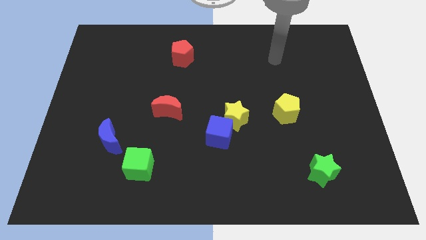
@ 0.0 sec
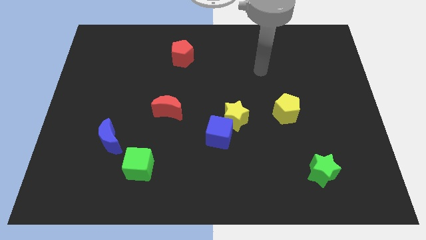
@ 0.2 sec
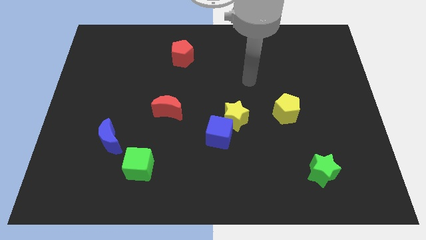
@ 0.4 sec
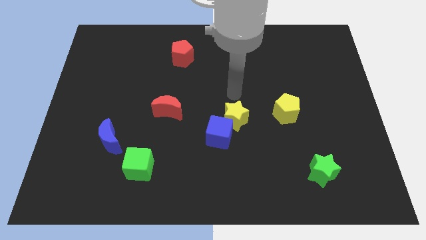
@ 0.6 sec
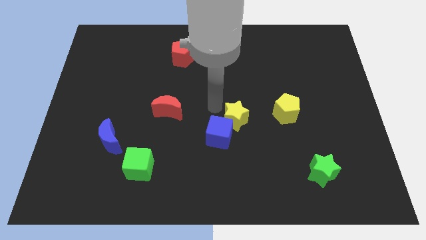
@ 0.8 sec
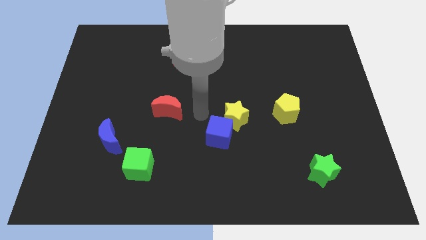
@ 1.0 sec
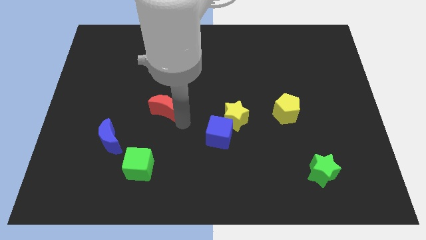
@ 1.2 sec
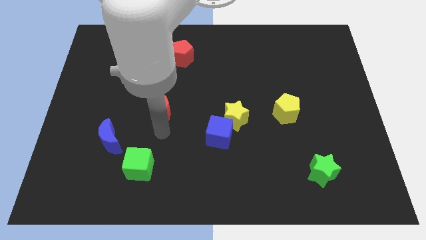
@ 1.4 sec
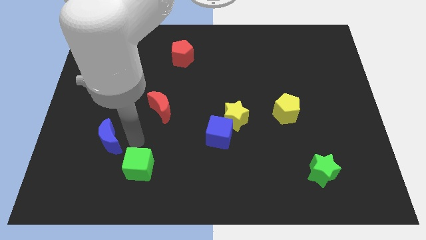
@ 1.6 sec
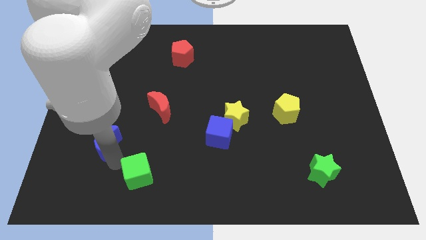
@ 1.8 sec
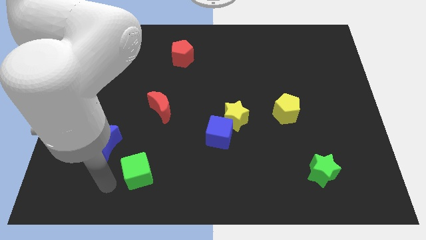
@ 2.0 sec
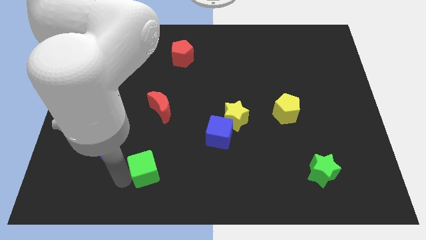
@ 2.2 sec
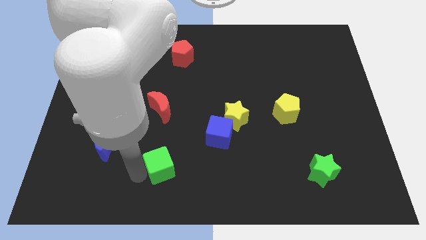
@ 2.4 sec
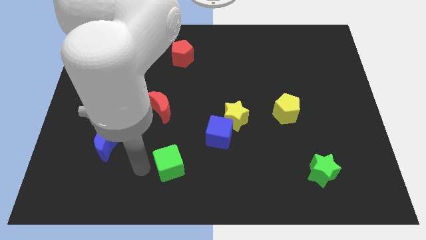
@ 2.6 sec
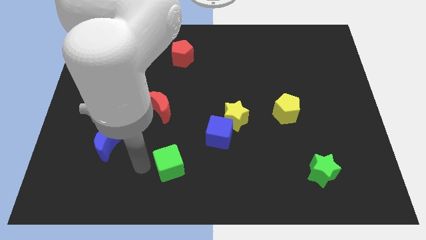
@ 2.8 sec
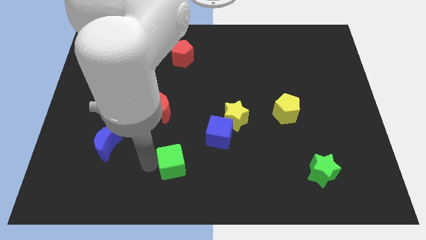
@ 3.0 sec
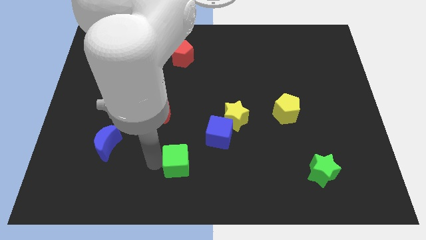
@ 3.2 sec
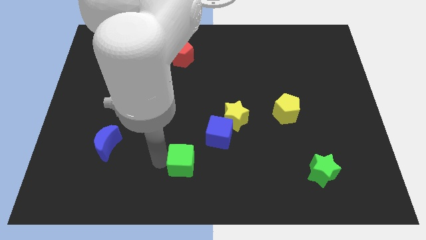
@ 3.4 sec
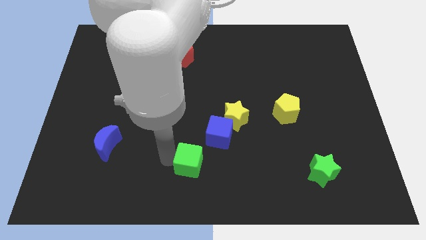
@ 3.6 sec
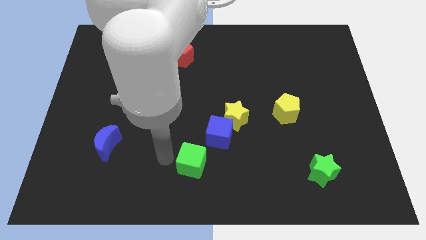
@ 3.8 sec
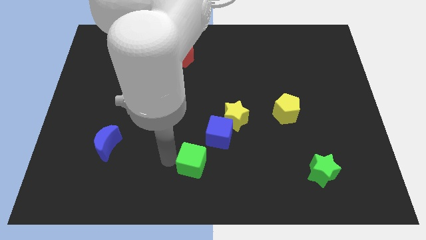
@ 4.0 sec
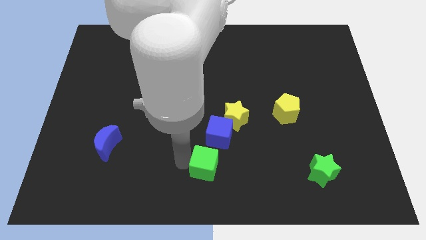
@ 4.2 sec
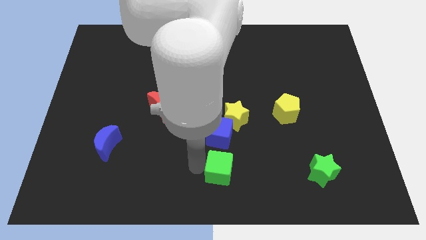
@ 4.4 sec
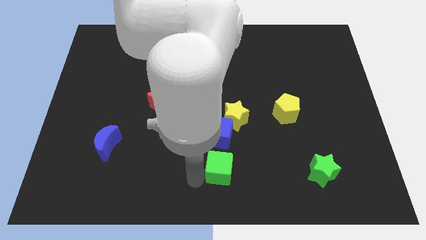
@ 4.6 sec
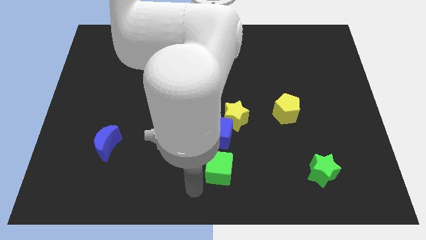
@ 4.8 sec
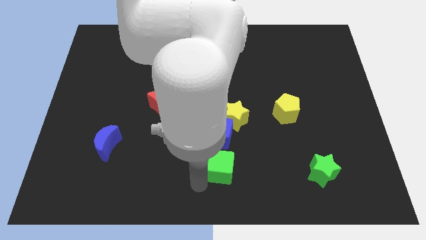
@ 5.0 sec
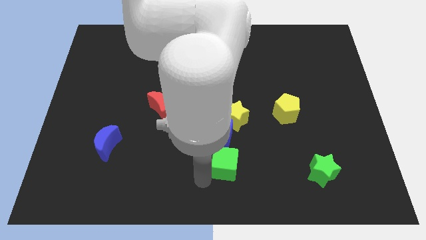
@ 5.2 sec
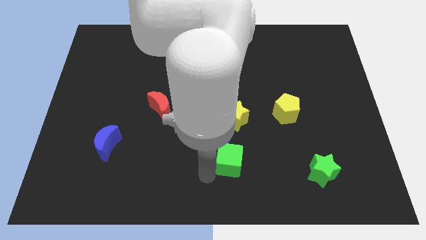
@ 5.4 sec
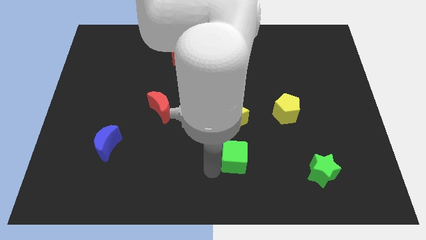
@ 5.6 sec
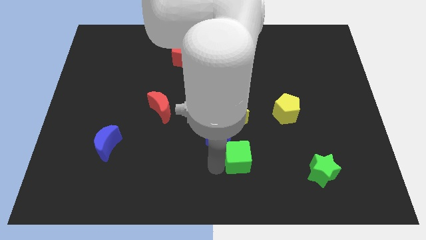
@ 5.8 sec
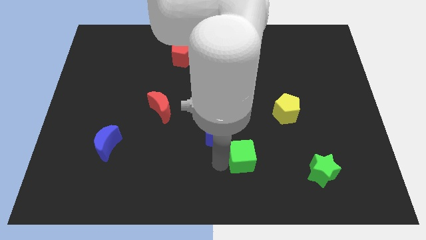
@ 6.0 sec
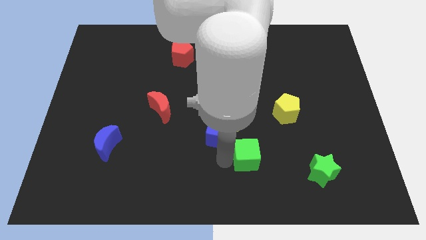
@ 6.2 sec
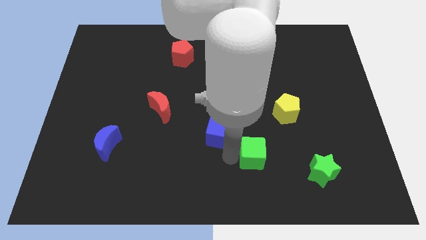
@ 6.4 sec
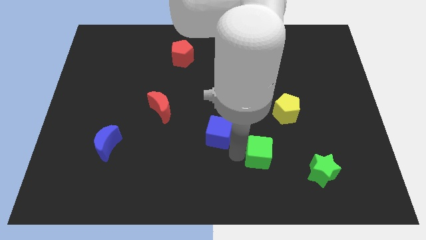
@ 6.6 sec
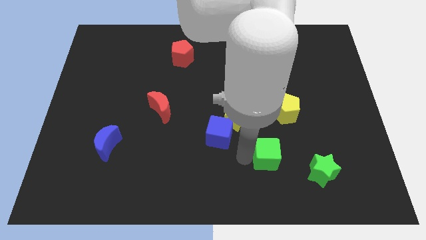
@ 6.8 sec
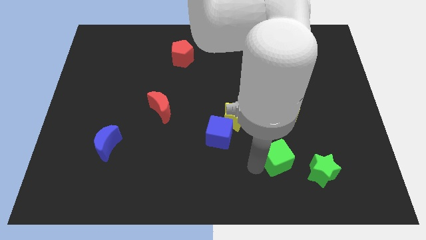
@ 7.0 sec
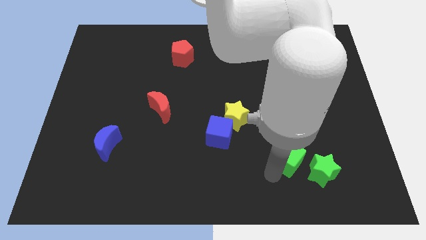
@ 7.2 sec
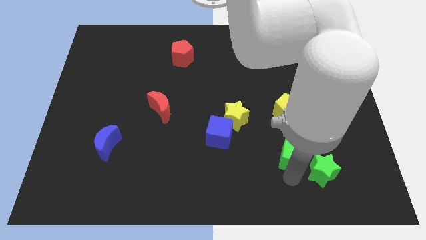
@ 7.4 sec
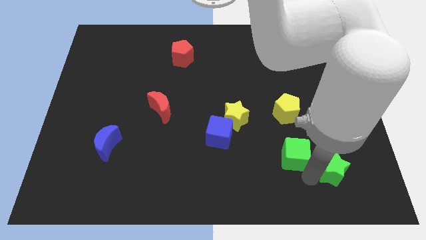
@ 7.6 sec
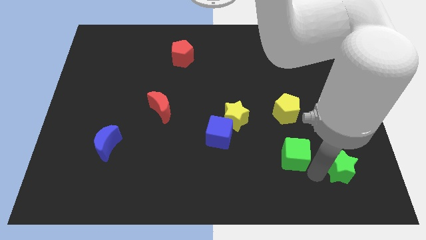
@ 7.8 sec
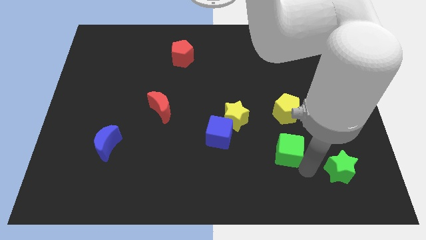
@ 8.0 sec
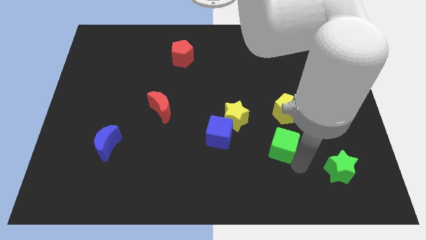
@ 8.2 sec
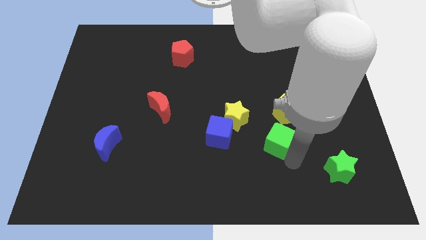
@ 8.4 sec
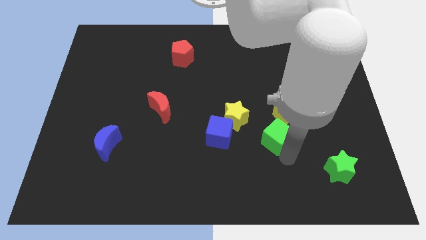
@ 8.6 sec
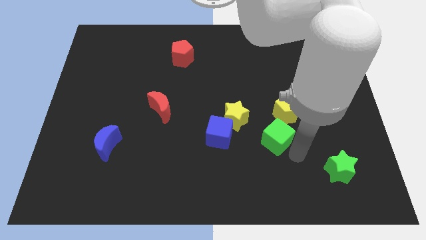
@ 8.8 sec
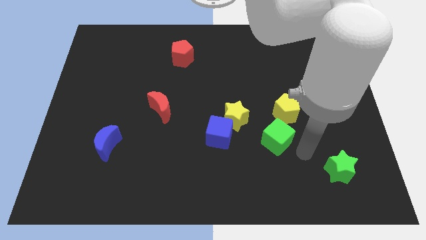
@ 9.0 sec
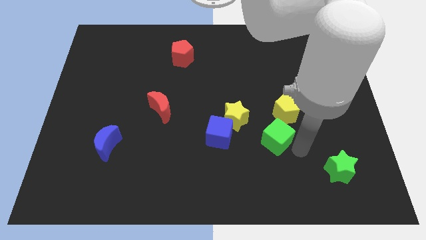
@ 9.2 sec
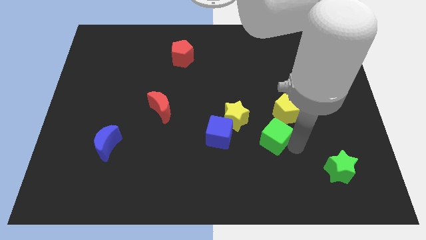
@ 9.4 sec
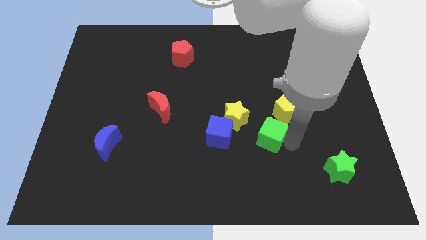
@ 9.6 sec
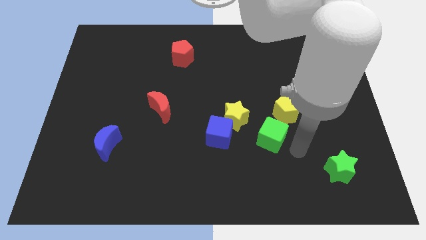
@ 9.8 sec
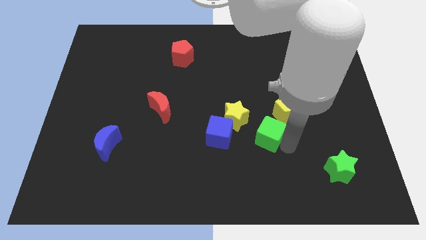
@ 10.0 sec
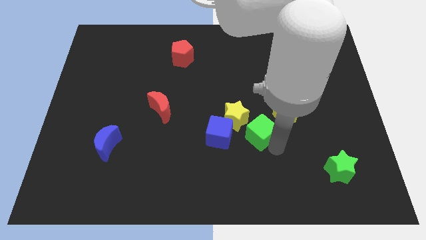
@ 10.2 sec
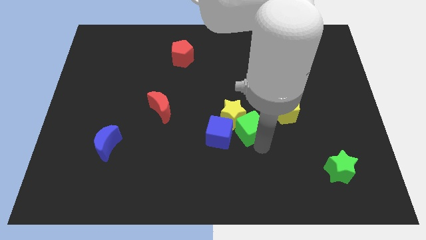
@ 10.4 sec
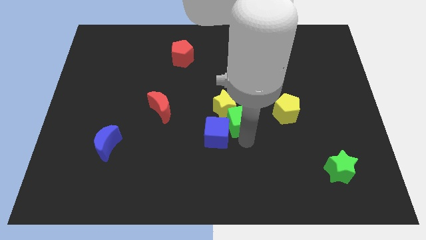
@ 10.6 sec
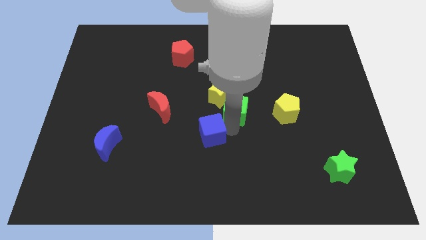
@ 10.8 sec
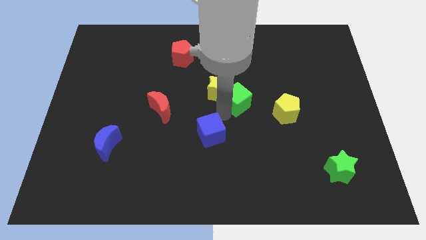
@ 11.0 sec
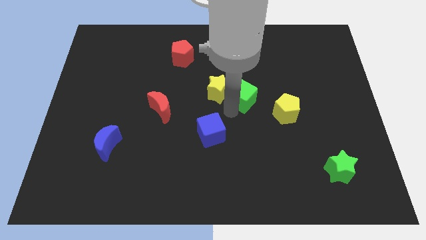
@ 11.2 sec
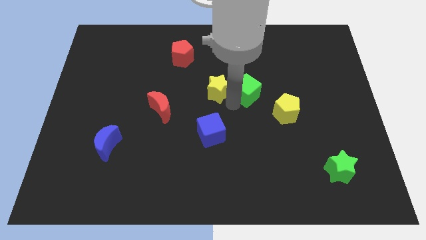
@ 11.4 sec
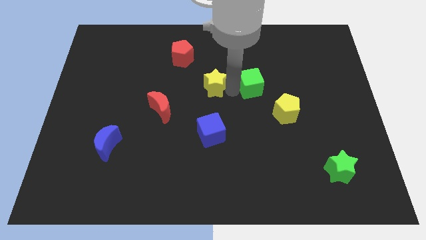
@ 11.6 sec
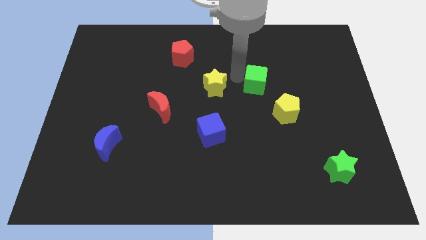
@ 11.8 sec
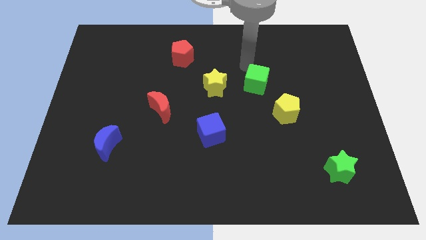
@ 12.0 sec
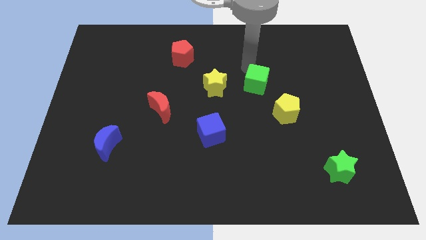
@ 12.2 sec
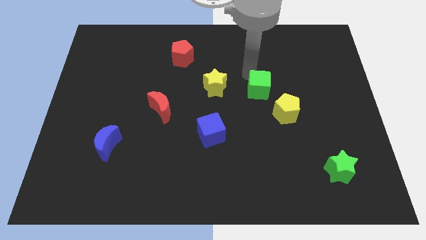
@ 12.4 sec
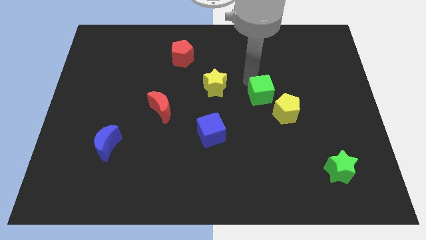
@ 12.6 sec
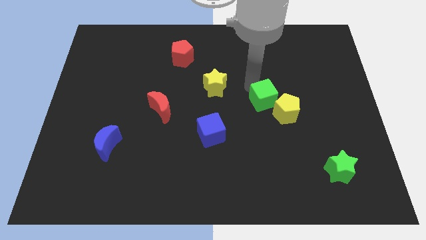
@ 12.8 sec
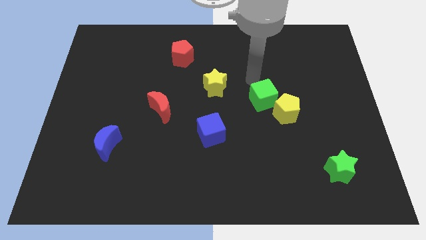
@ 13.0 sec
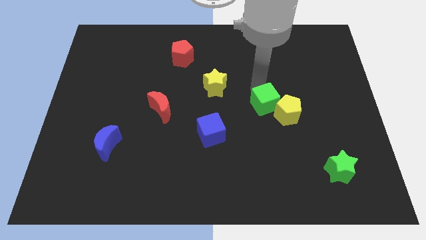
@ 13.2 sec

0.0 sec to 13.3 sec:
push the green cube close to the yellow pentagon

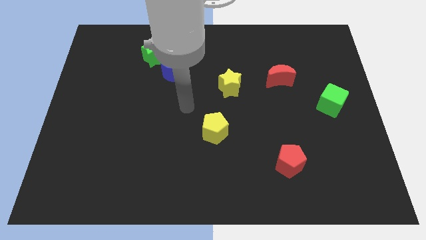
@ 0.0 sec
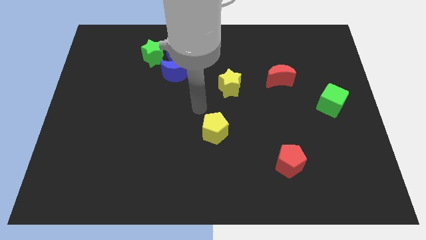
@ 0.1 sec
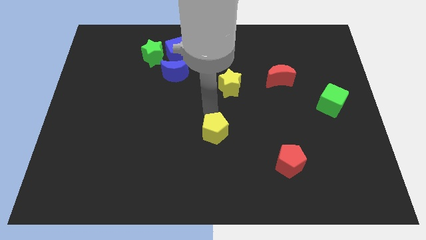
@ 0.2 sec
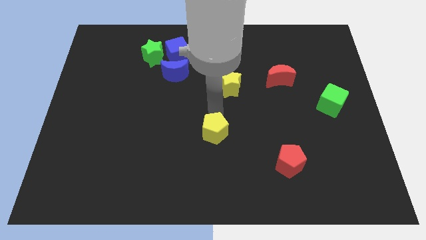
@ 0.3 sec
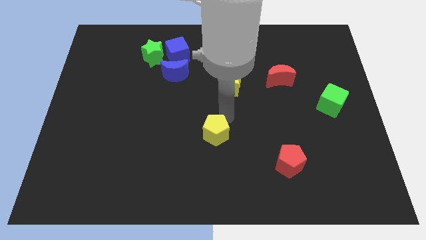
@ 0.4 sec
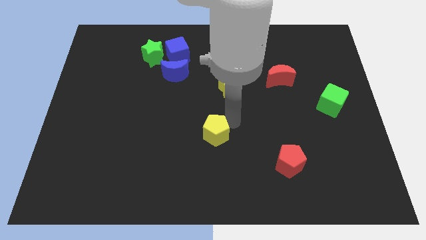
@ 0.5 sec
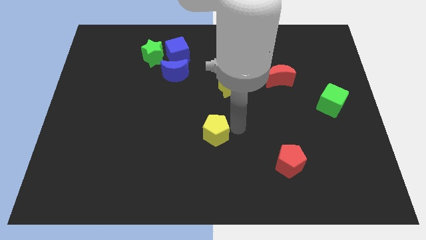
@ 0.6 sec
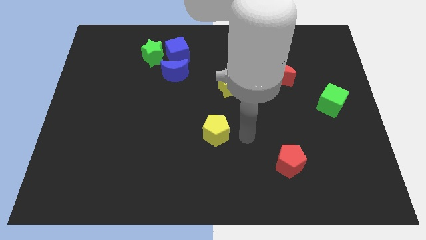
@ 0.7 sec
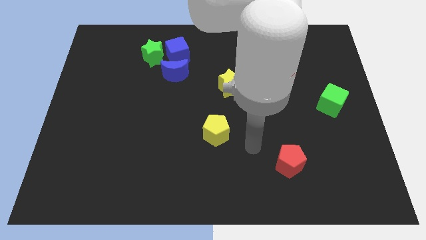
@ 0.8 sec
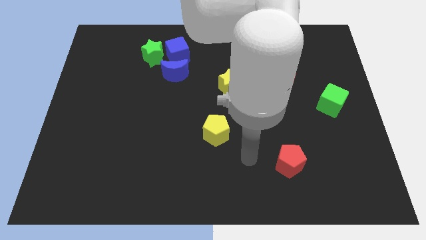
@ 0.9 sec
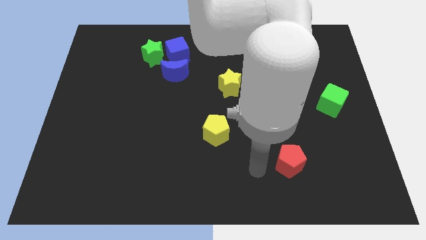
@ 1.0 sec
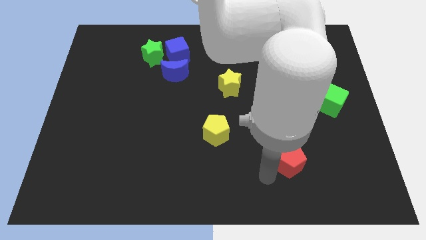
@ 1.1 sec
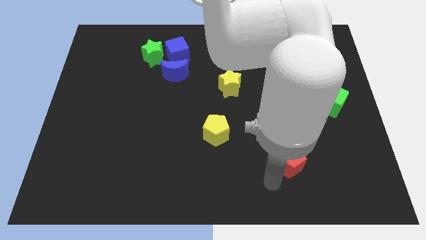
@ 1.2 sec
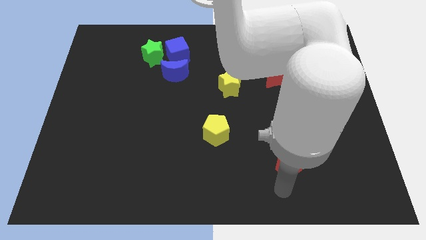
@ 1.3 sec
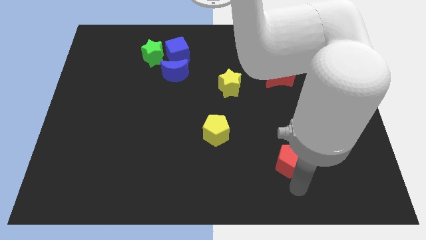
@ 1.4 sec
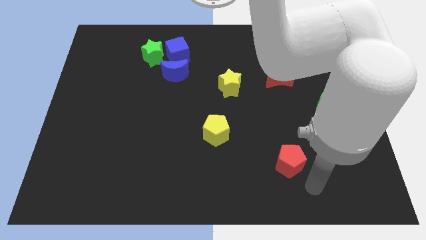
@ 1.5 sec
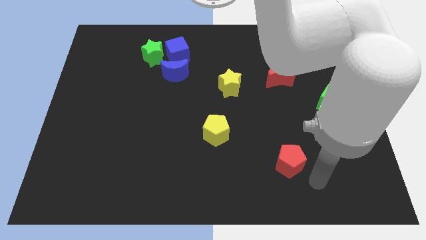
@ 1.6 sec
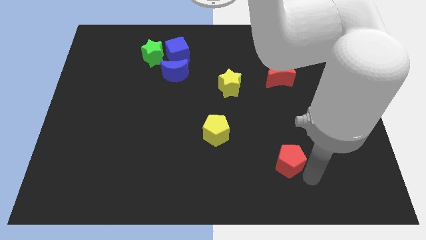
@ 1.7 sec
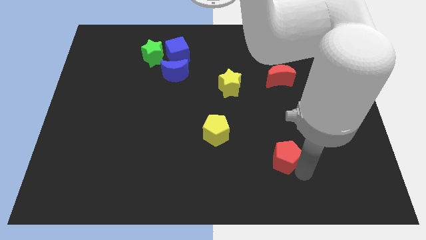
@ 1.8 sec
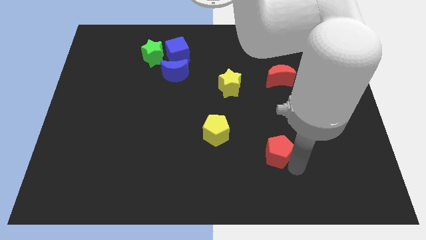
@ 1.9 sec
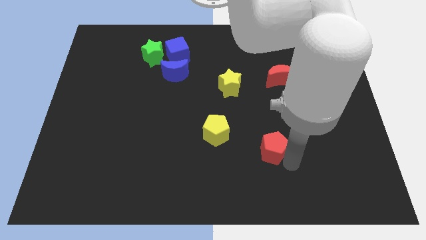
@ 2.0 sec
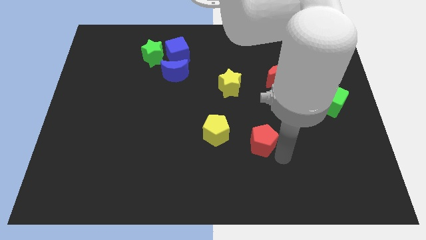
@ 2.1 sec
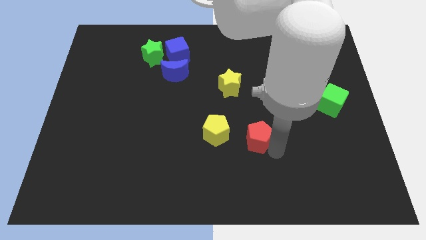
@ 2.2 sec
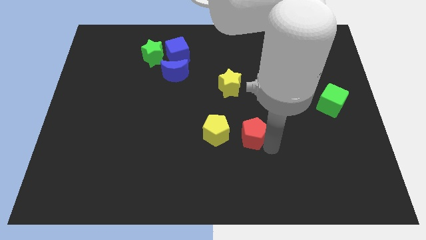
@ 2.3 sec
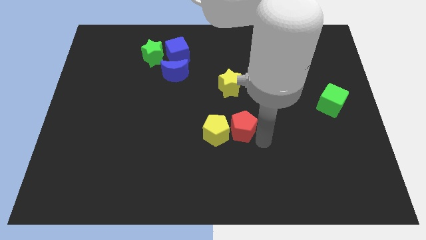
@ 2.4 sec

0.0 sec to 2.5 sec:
slide the red pentagon towards the yellow pentagon
